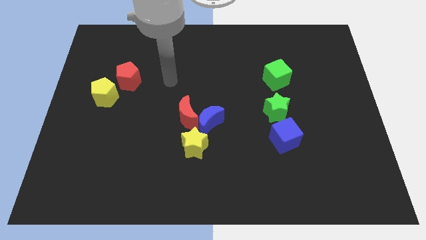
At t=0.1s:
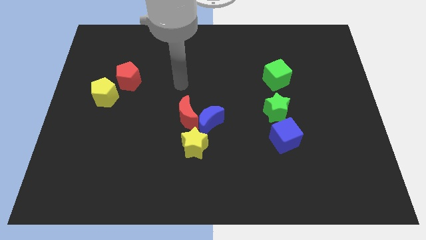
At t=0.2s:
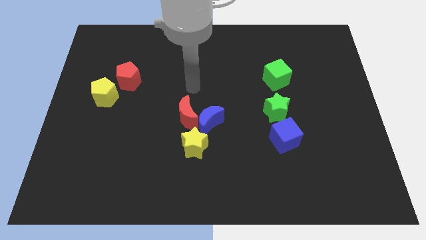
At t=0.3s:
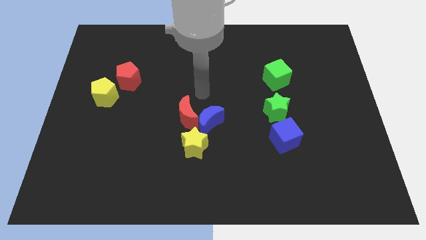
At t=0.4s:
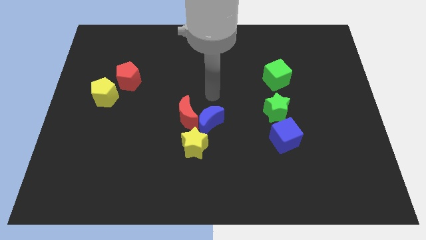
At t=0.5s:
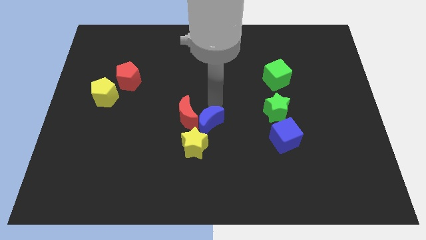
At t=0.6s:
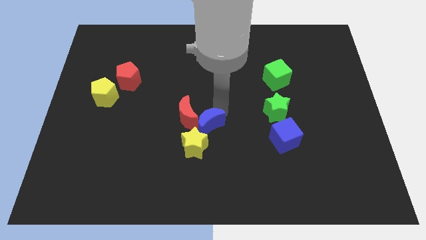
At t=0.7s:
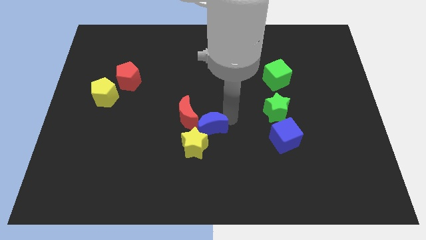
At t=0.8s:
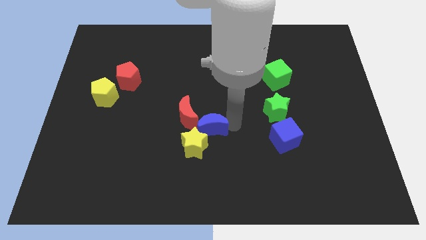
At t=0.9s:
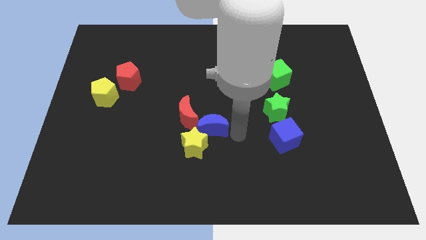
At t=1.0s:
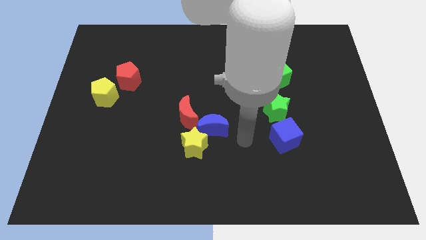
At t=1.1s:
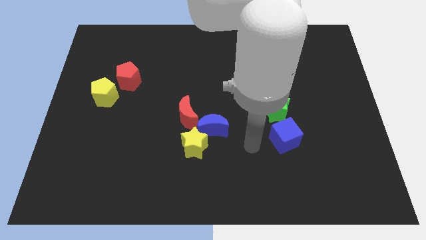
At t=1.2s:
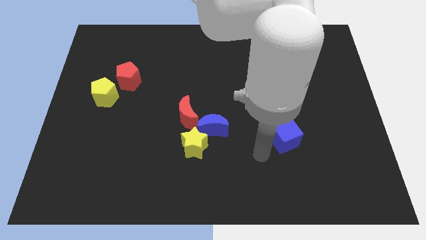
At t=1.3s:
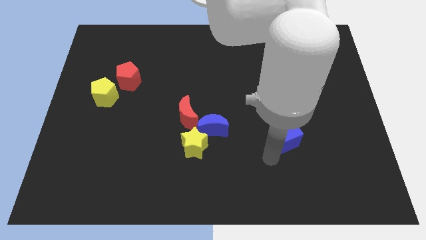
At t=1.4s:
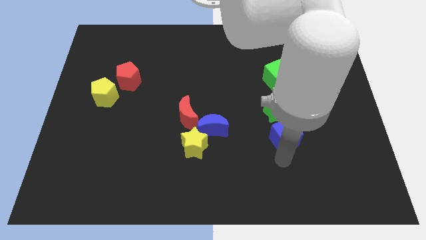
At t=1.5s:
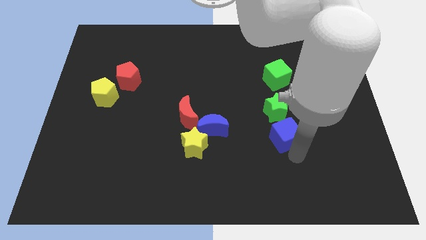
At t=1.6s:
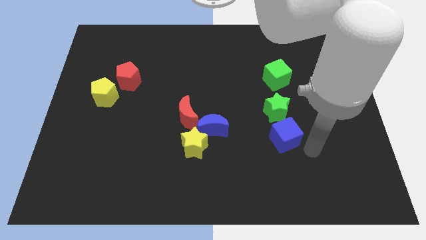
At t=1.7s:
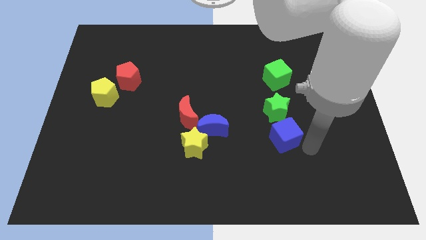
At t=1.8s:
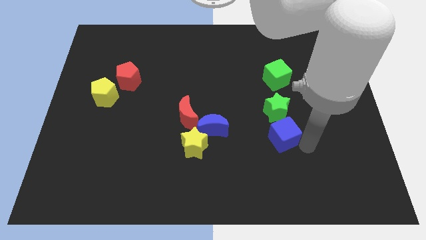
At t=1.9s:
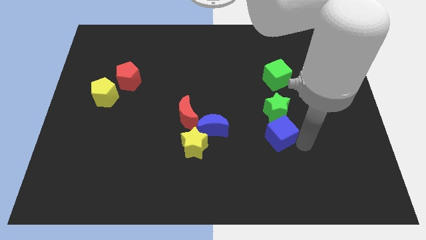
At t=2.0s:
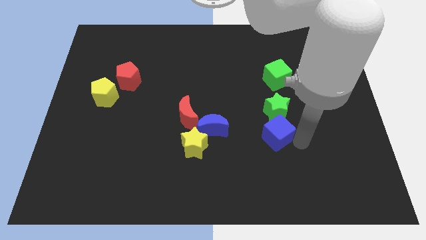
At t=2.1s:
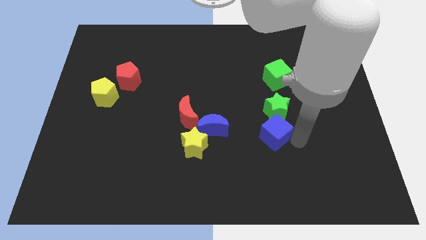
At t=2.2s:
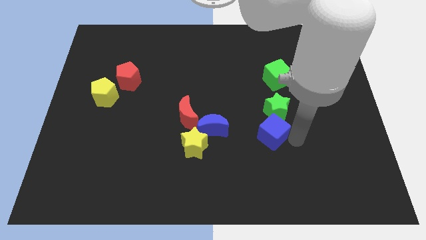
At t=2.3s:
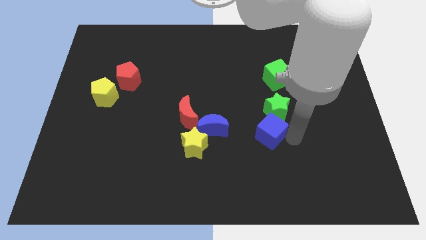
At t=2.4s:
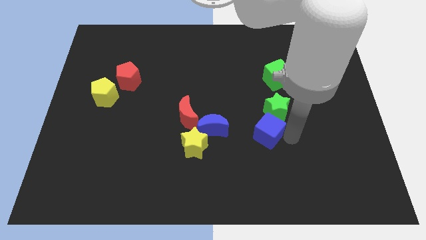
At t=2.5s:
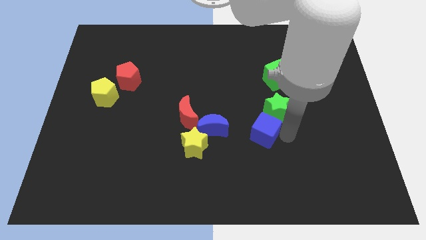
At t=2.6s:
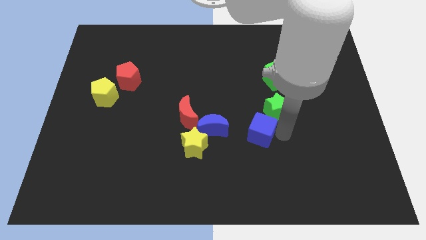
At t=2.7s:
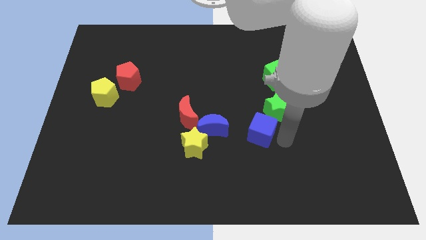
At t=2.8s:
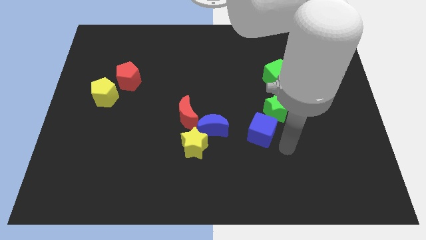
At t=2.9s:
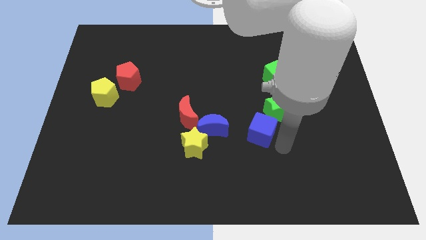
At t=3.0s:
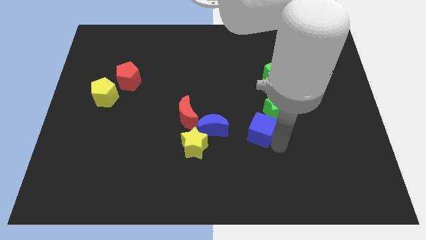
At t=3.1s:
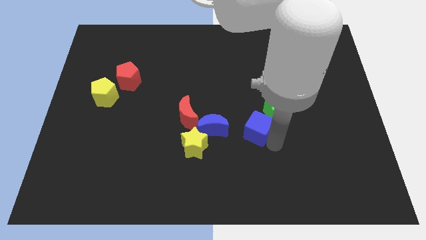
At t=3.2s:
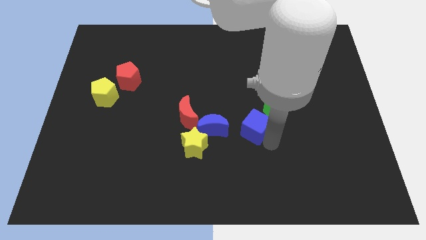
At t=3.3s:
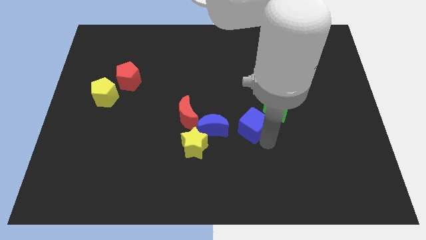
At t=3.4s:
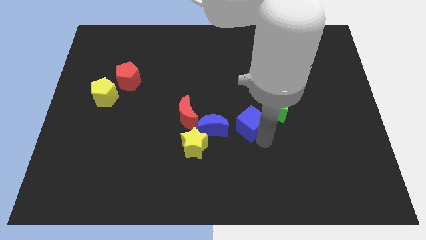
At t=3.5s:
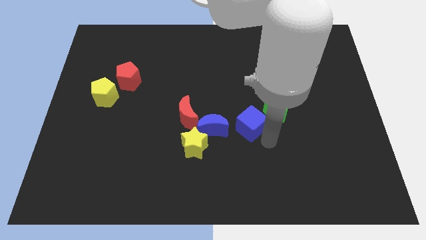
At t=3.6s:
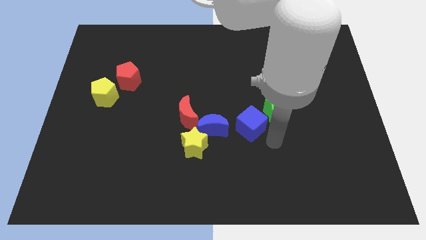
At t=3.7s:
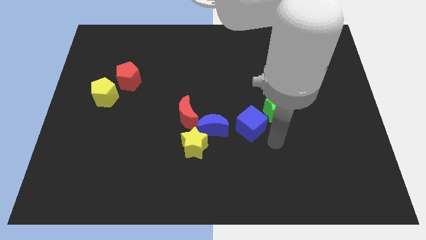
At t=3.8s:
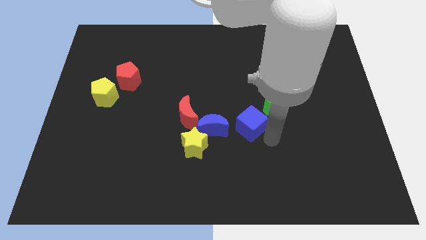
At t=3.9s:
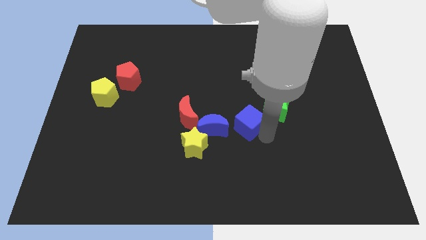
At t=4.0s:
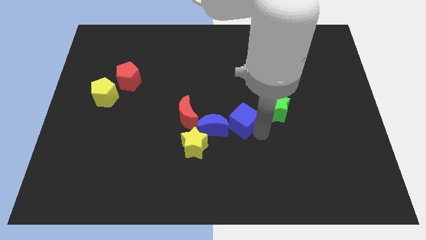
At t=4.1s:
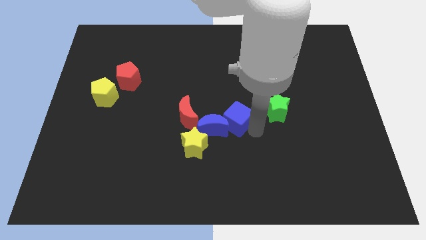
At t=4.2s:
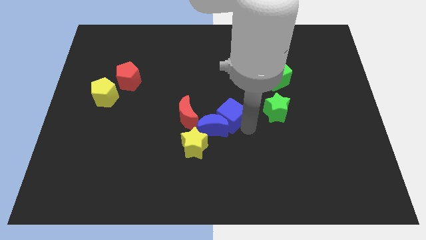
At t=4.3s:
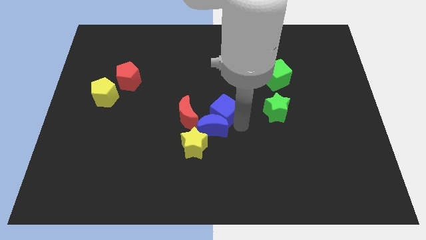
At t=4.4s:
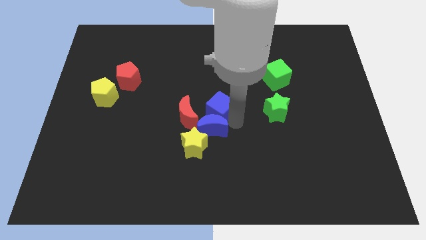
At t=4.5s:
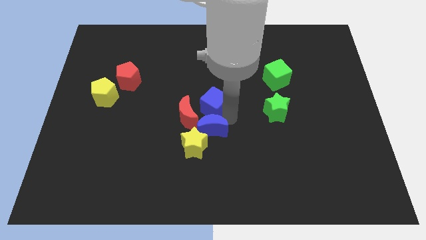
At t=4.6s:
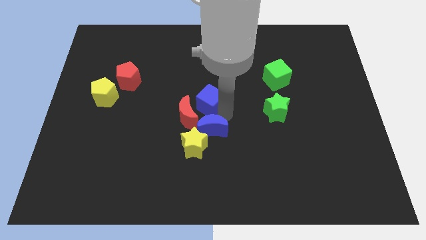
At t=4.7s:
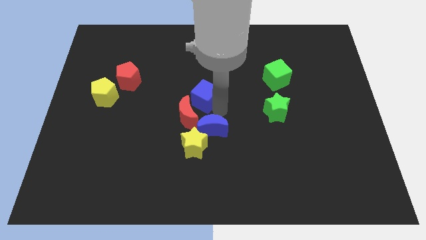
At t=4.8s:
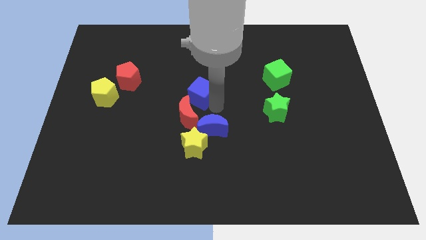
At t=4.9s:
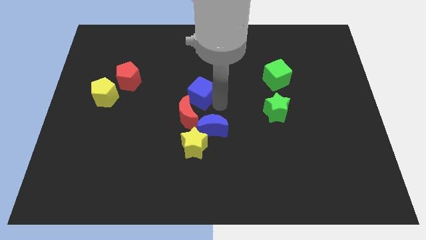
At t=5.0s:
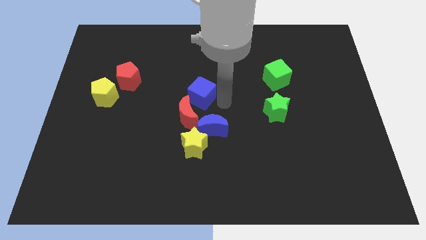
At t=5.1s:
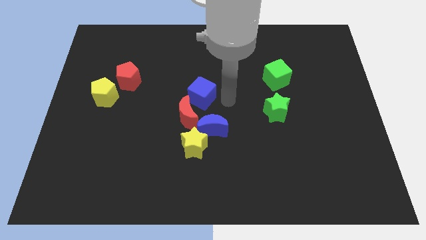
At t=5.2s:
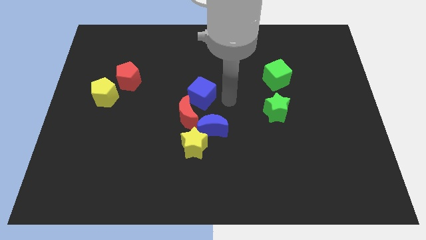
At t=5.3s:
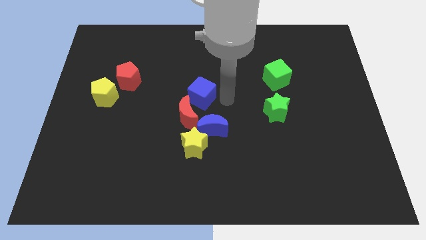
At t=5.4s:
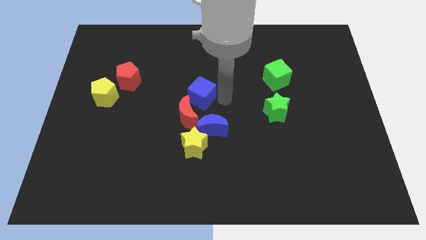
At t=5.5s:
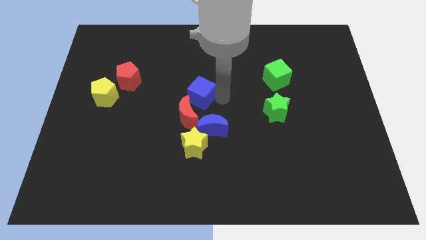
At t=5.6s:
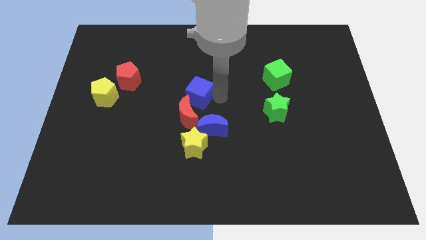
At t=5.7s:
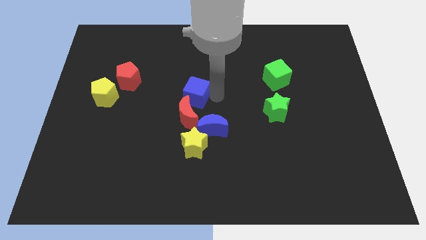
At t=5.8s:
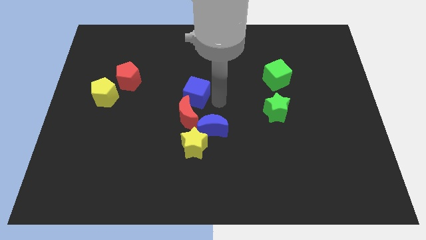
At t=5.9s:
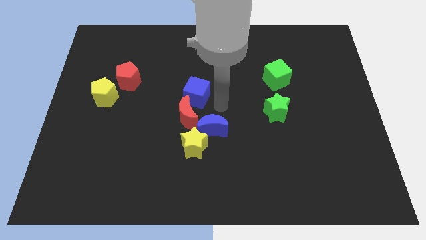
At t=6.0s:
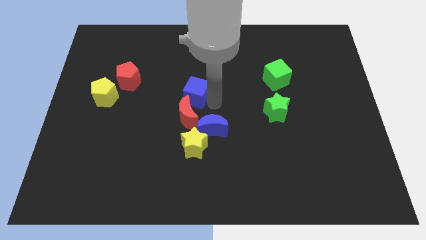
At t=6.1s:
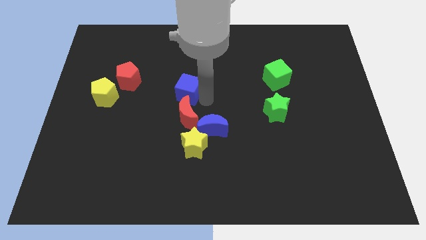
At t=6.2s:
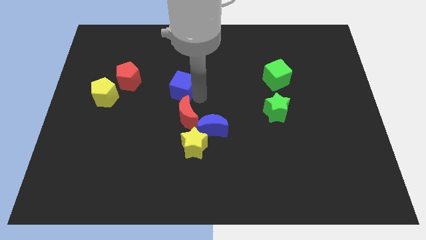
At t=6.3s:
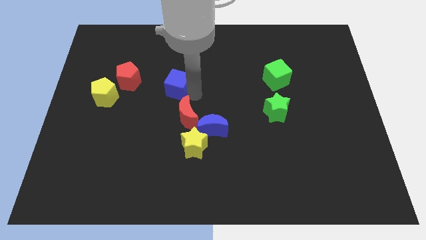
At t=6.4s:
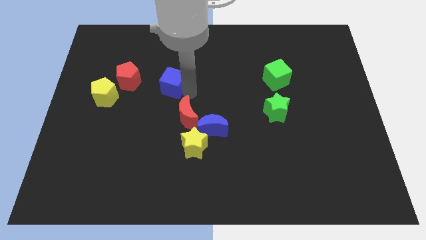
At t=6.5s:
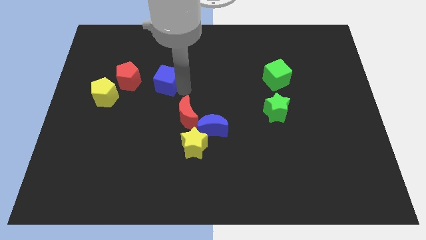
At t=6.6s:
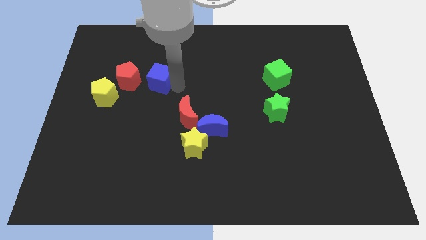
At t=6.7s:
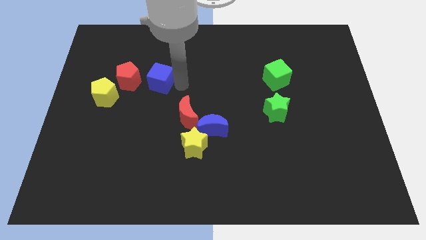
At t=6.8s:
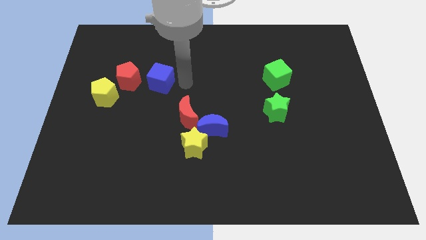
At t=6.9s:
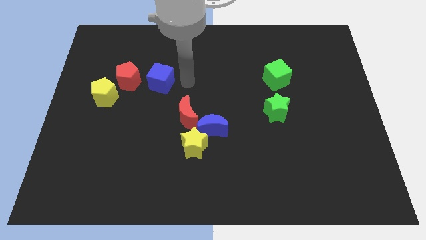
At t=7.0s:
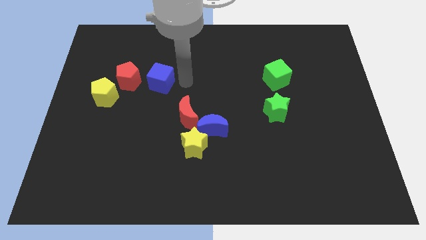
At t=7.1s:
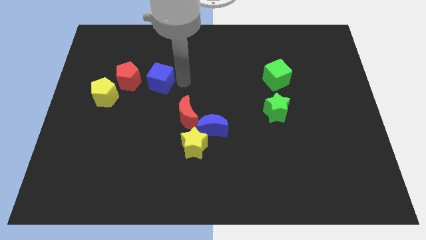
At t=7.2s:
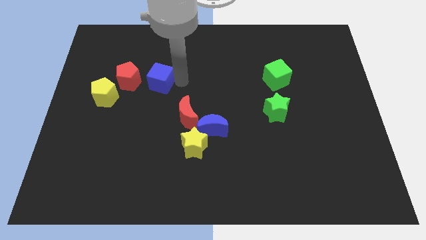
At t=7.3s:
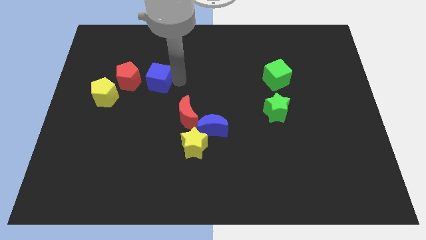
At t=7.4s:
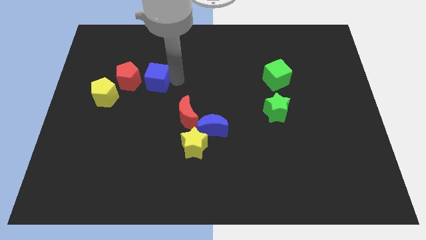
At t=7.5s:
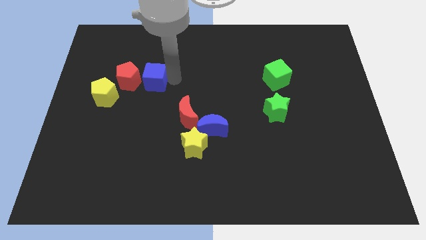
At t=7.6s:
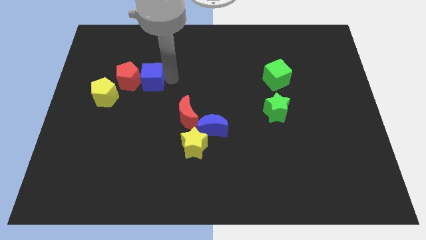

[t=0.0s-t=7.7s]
put the blue cube towards the red pentagon
